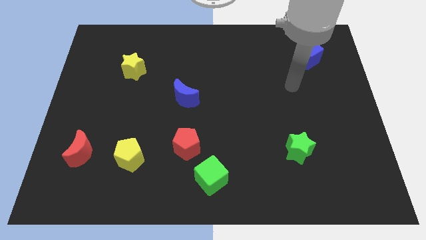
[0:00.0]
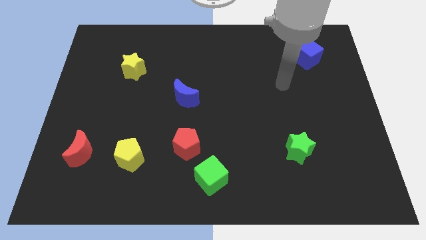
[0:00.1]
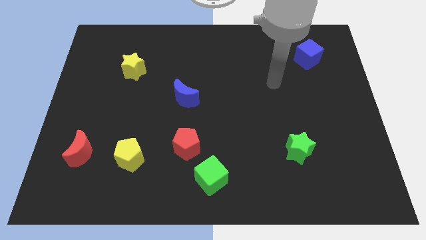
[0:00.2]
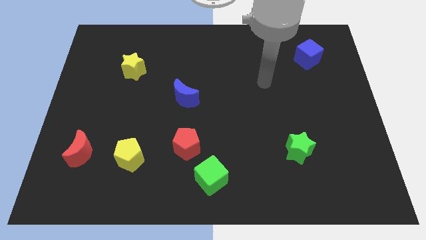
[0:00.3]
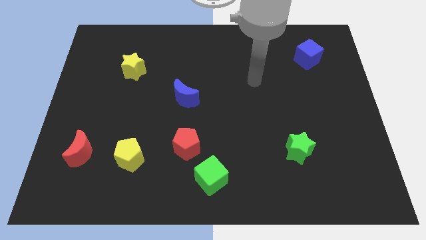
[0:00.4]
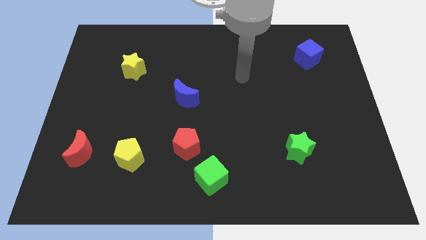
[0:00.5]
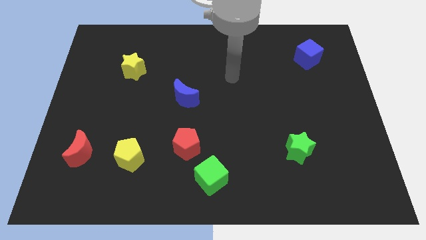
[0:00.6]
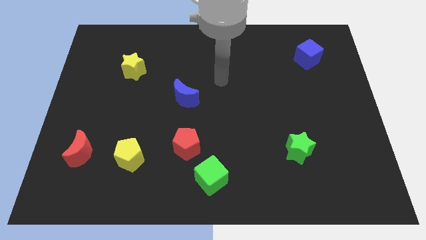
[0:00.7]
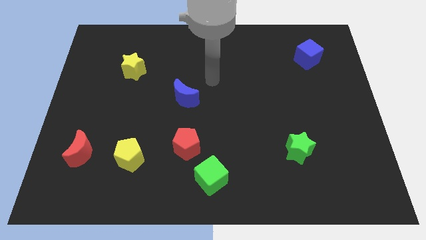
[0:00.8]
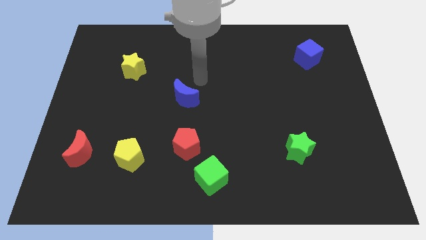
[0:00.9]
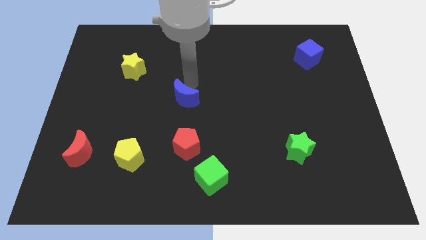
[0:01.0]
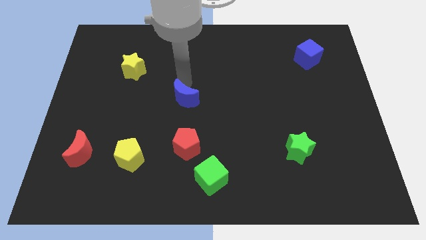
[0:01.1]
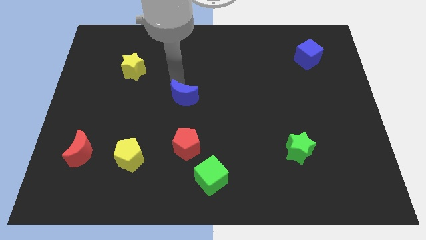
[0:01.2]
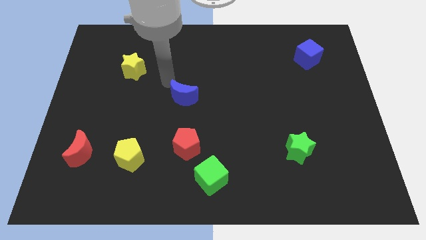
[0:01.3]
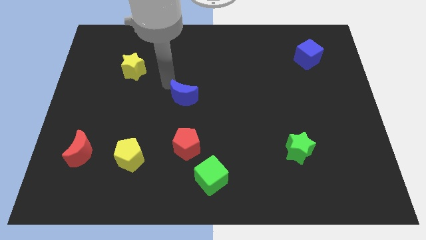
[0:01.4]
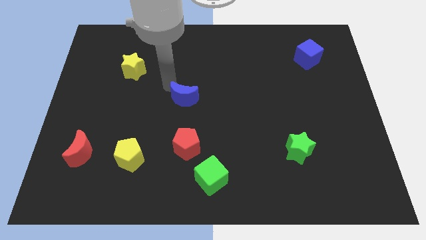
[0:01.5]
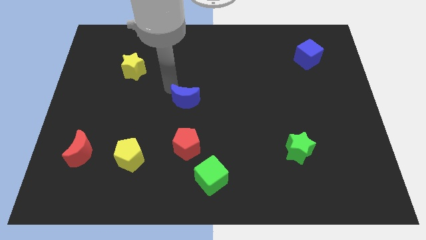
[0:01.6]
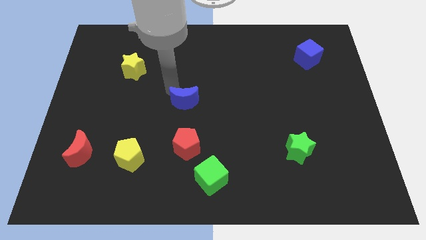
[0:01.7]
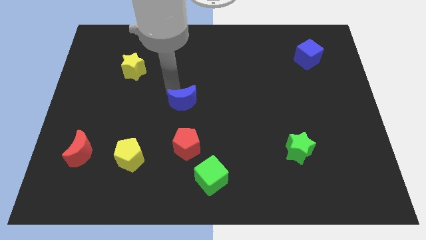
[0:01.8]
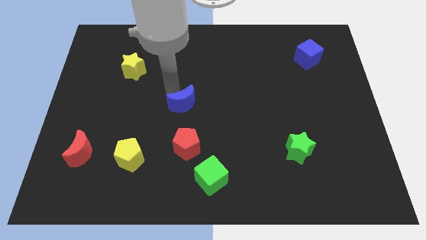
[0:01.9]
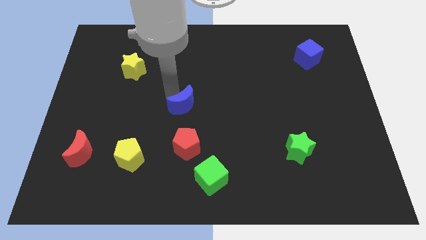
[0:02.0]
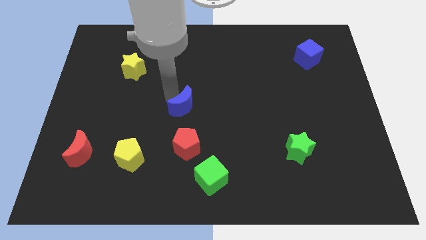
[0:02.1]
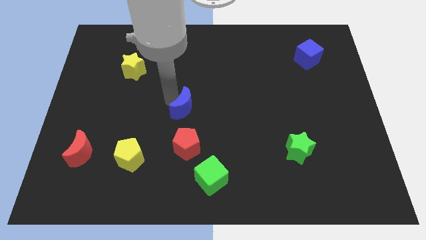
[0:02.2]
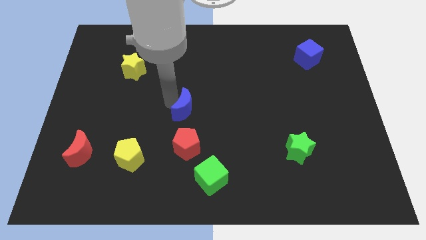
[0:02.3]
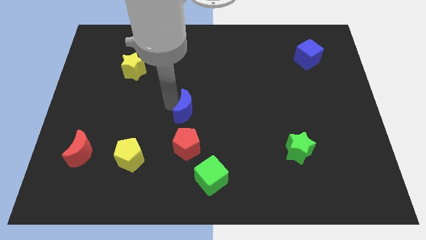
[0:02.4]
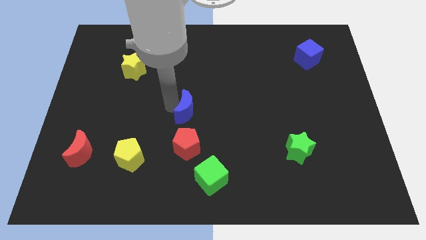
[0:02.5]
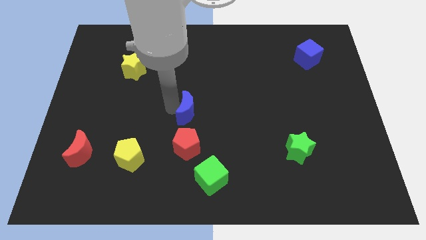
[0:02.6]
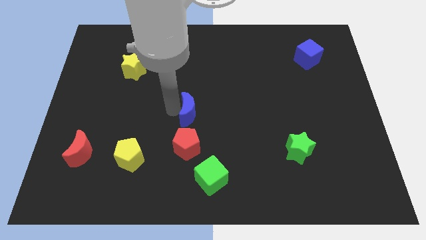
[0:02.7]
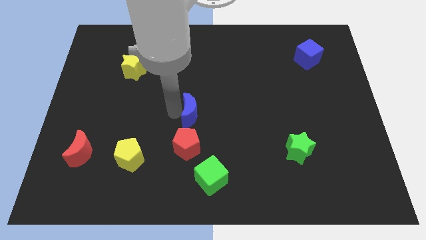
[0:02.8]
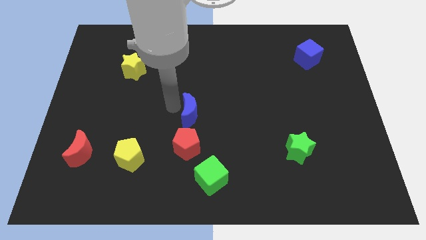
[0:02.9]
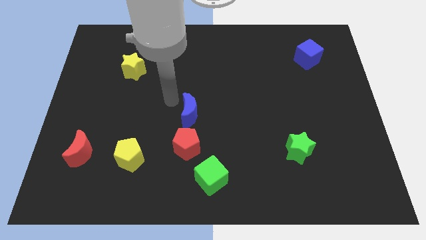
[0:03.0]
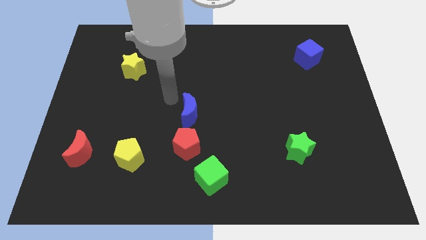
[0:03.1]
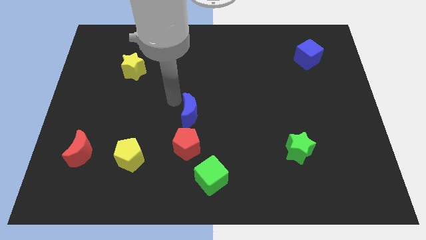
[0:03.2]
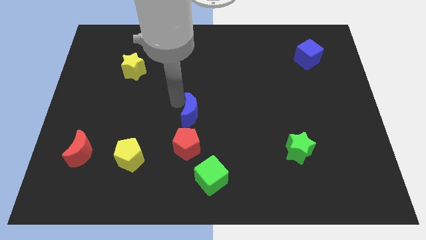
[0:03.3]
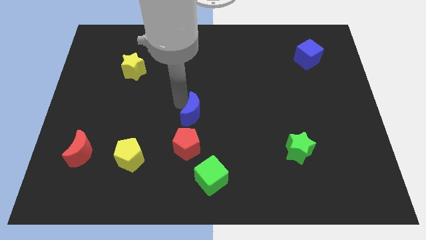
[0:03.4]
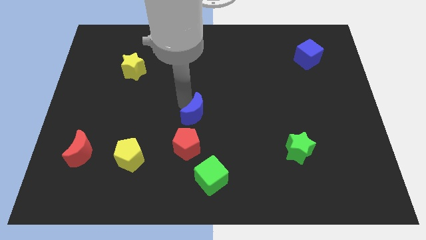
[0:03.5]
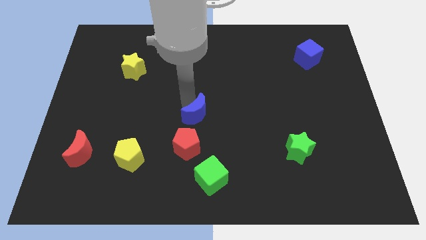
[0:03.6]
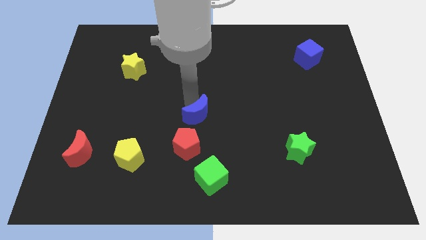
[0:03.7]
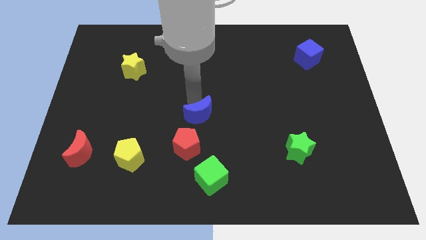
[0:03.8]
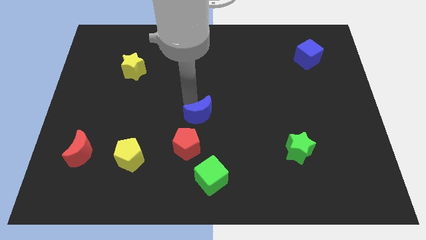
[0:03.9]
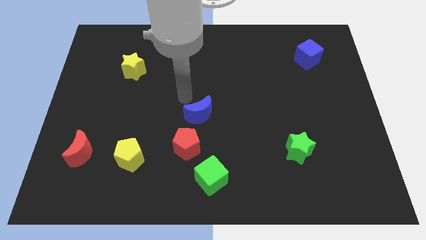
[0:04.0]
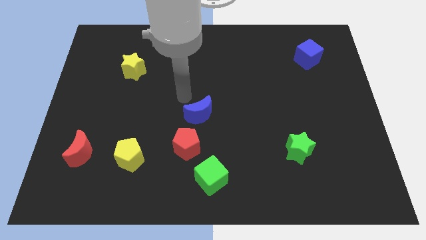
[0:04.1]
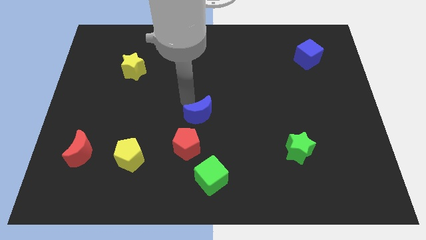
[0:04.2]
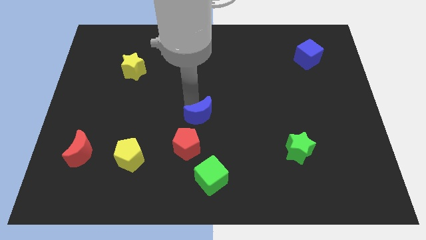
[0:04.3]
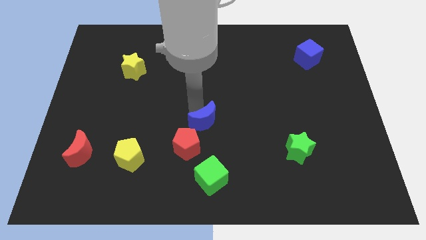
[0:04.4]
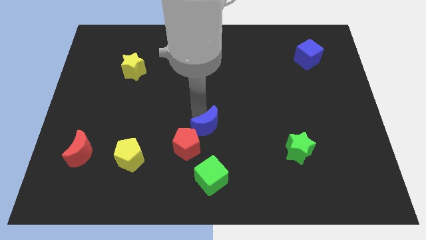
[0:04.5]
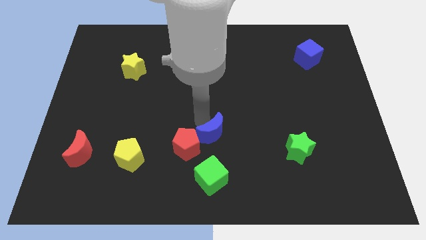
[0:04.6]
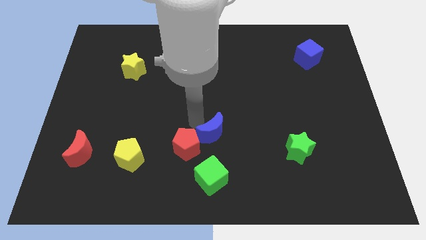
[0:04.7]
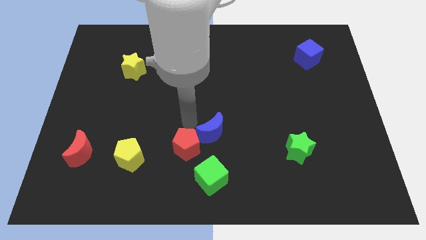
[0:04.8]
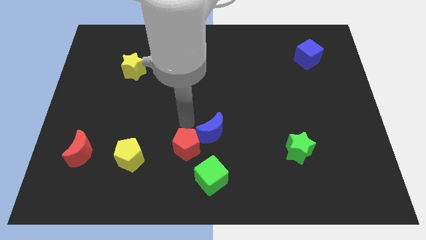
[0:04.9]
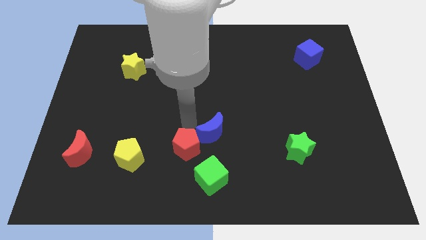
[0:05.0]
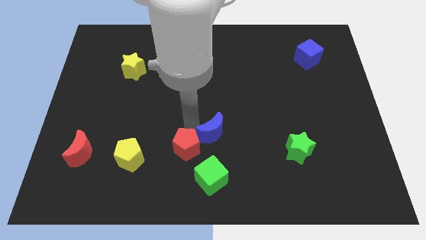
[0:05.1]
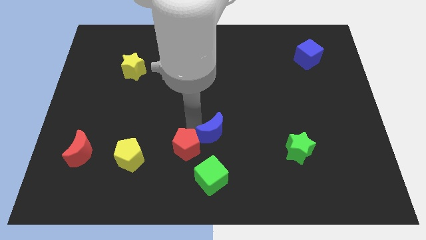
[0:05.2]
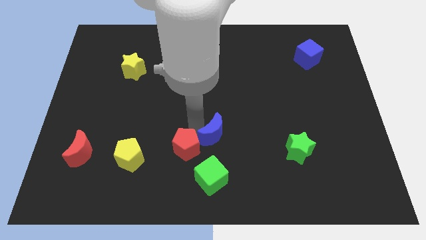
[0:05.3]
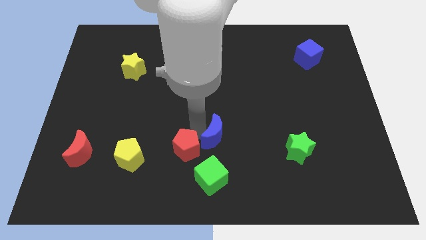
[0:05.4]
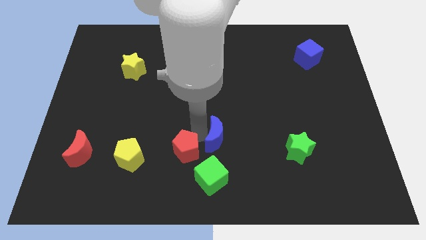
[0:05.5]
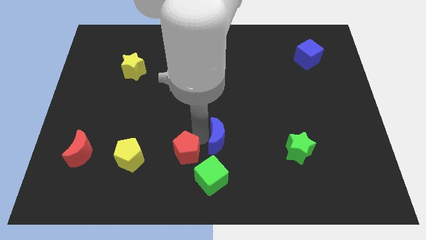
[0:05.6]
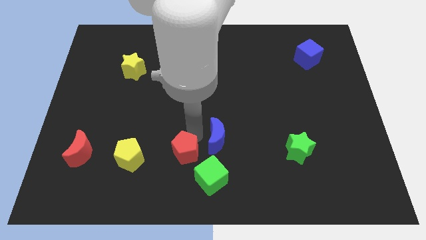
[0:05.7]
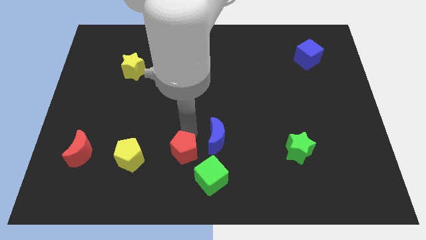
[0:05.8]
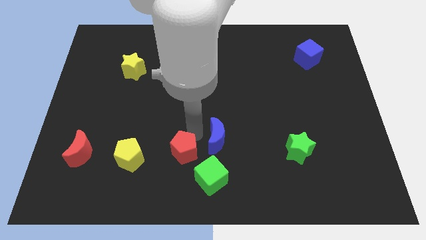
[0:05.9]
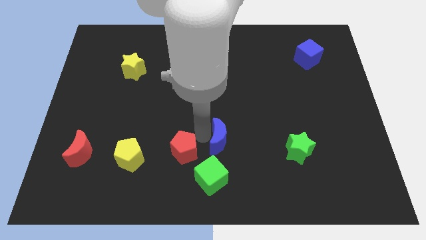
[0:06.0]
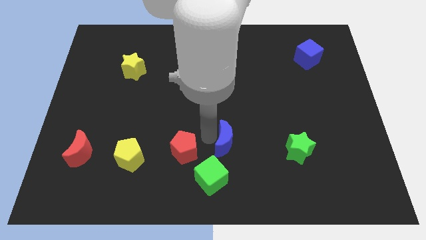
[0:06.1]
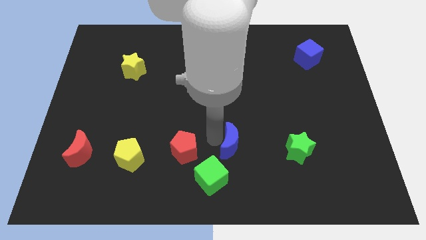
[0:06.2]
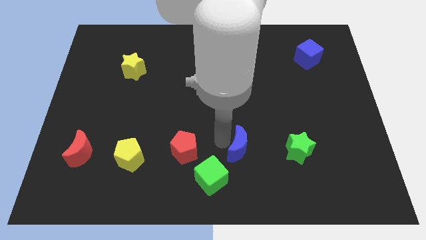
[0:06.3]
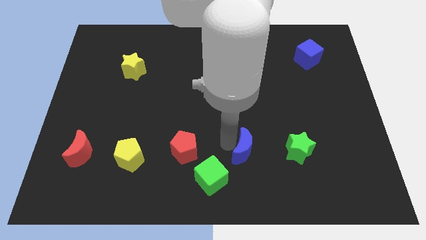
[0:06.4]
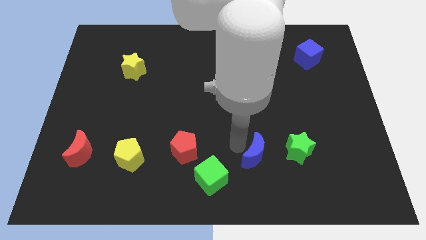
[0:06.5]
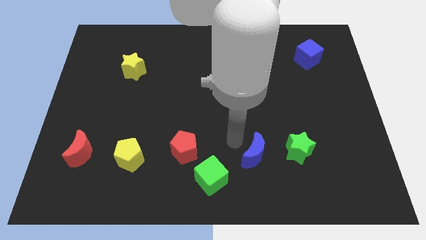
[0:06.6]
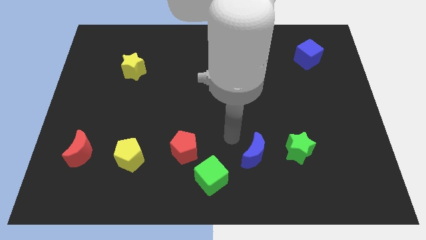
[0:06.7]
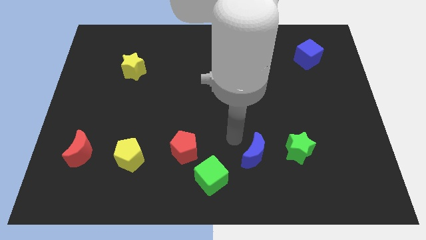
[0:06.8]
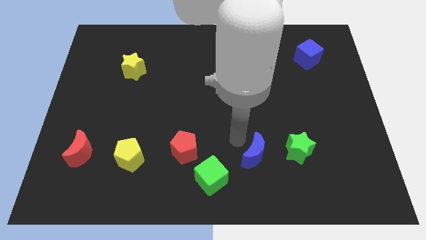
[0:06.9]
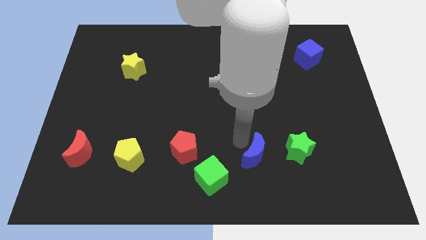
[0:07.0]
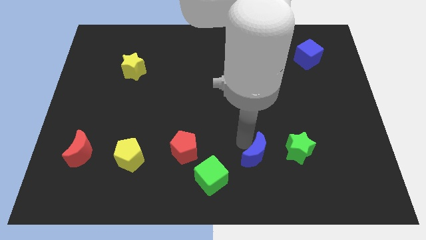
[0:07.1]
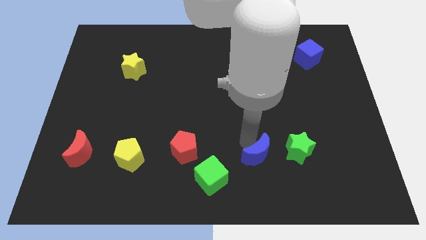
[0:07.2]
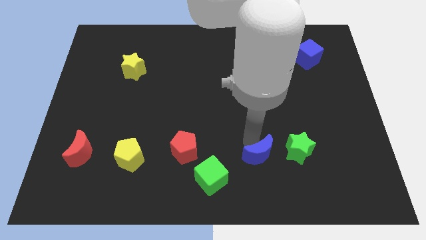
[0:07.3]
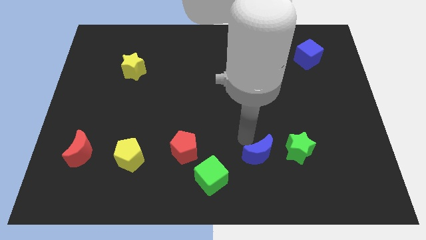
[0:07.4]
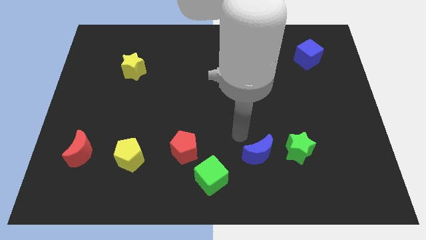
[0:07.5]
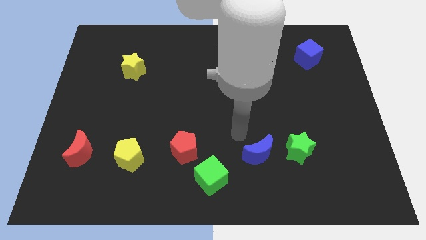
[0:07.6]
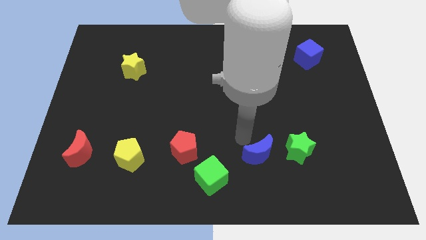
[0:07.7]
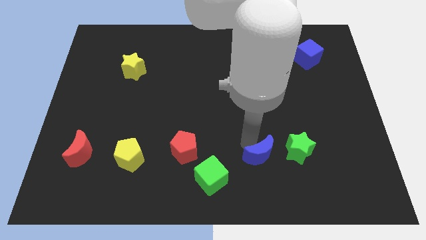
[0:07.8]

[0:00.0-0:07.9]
move the blue moon to the bottom left side of the green star

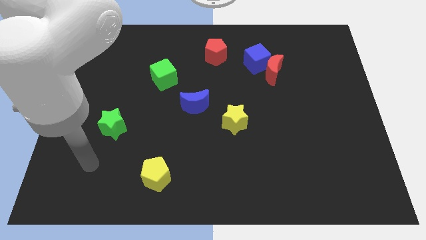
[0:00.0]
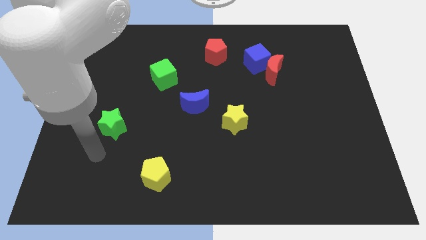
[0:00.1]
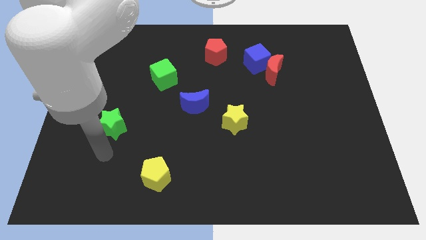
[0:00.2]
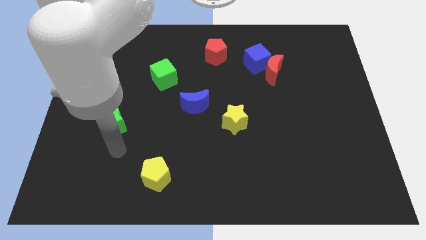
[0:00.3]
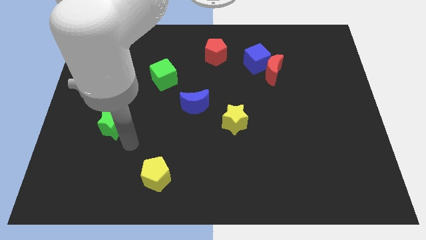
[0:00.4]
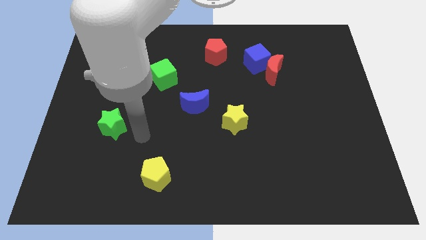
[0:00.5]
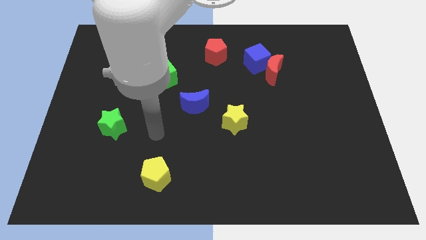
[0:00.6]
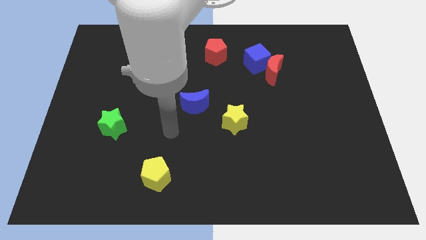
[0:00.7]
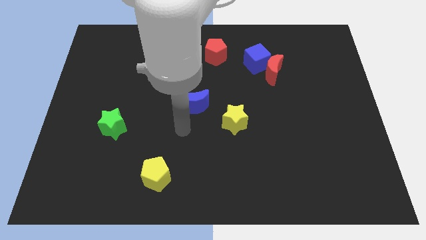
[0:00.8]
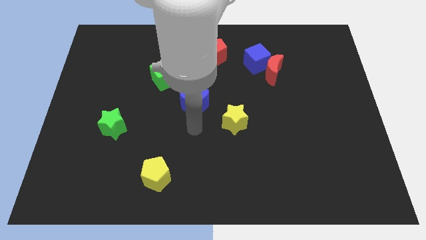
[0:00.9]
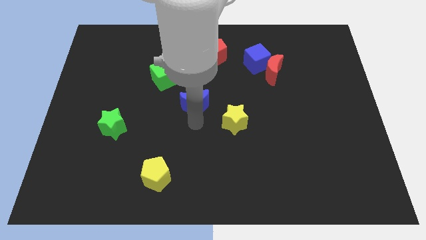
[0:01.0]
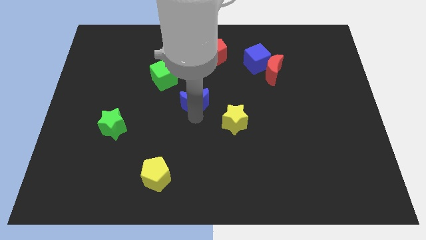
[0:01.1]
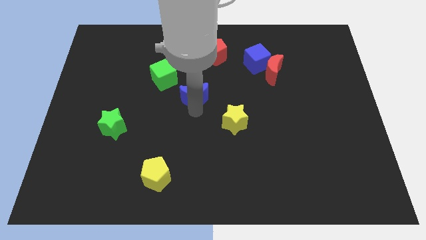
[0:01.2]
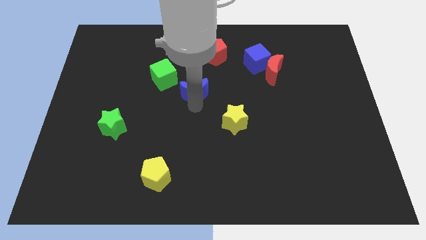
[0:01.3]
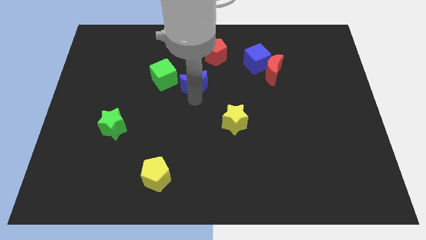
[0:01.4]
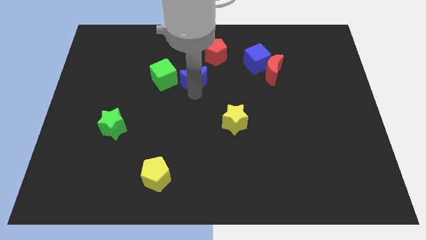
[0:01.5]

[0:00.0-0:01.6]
slide the blue moon to the bottom left side of the red pentagon
